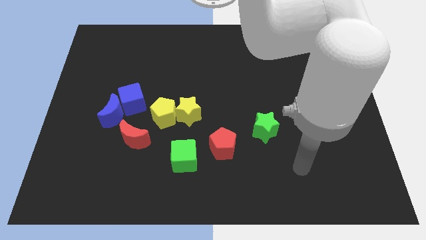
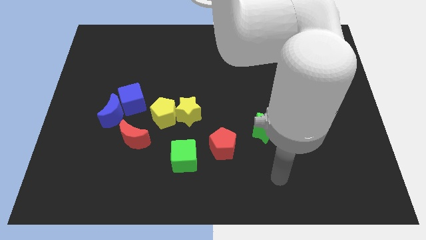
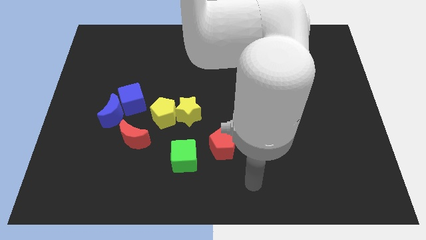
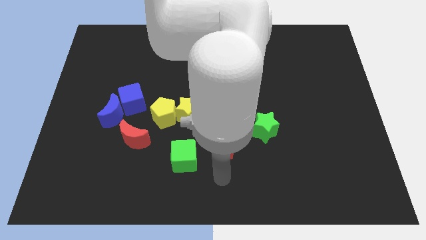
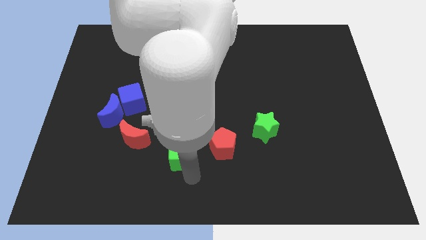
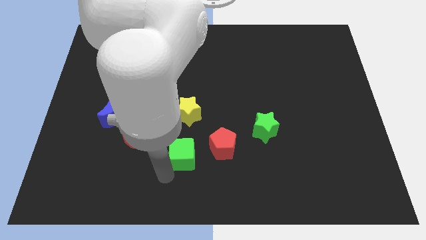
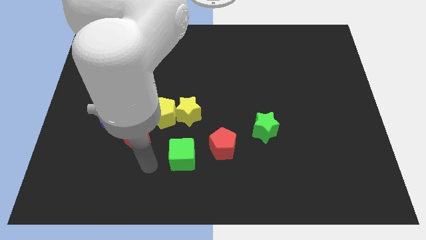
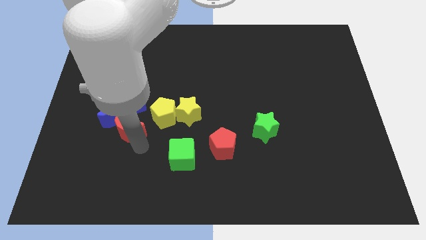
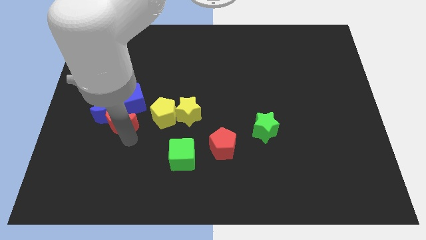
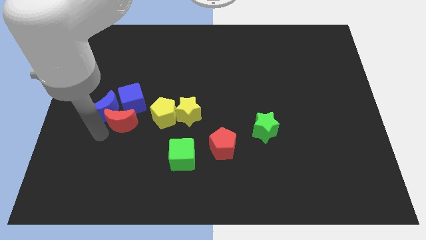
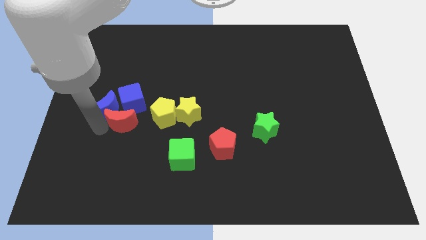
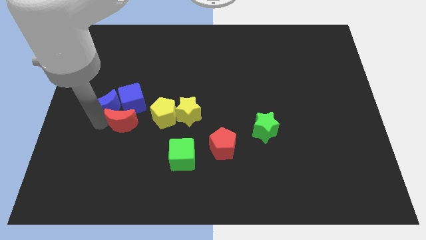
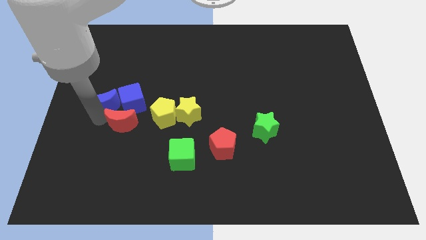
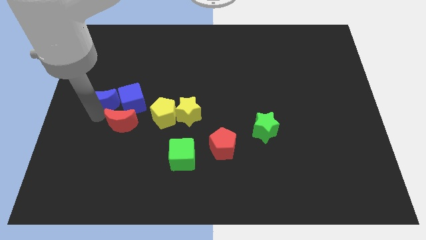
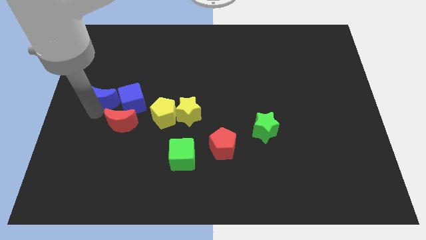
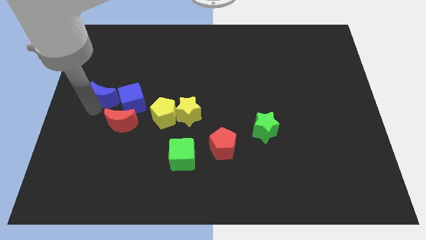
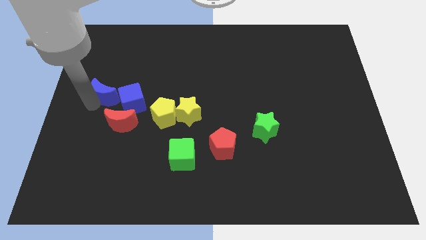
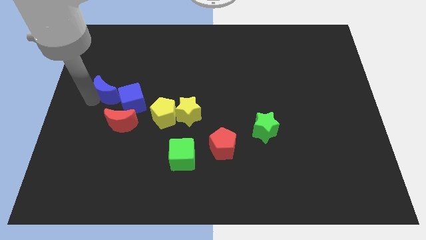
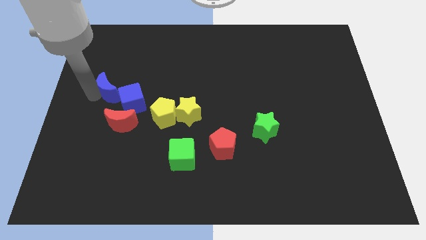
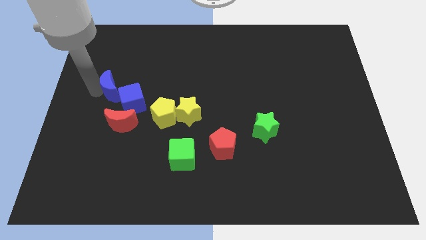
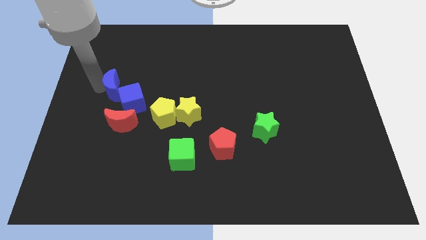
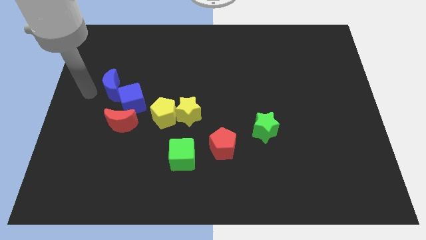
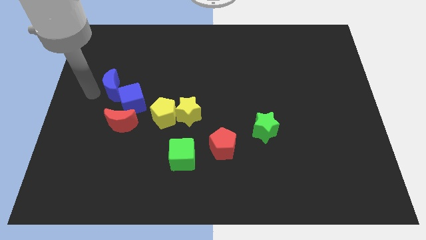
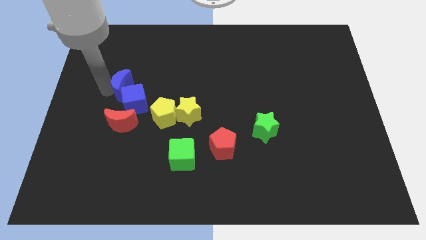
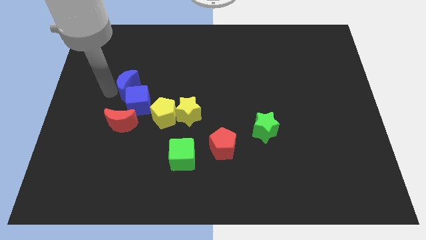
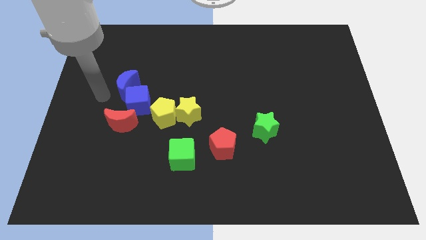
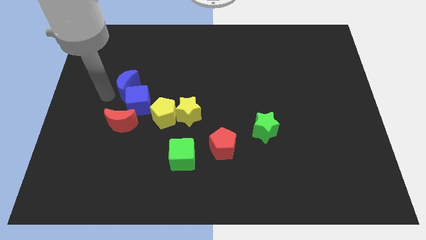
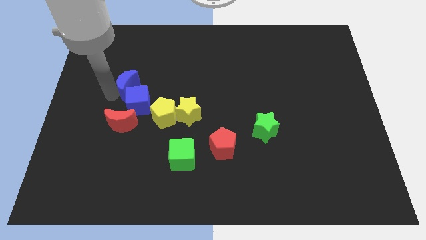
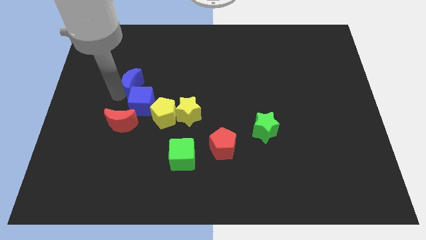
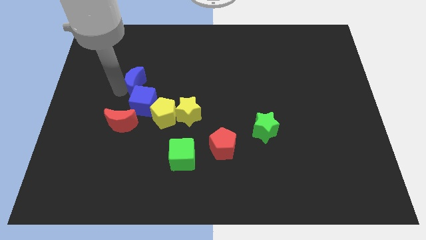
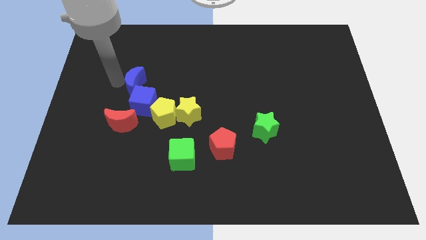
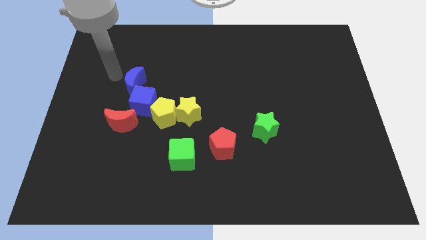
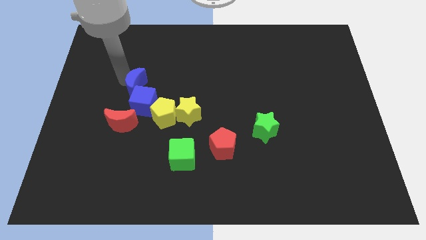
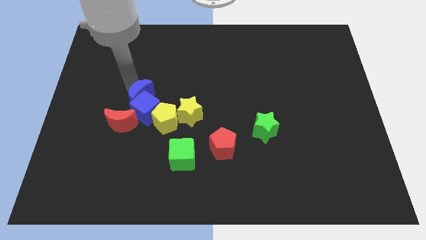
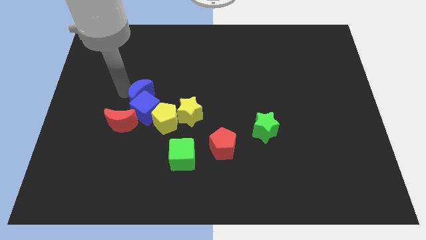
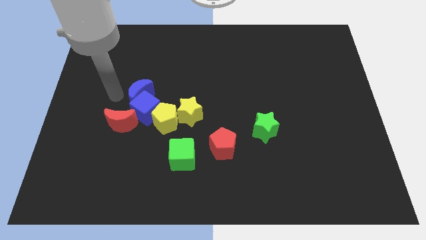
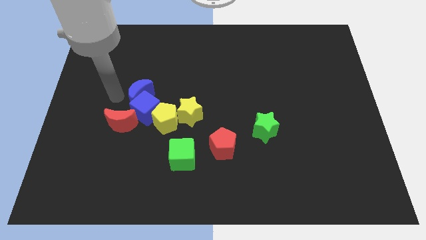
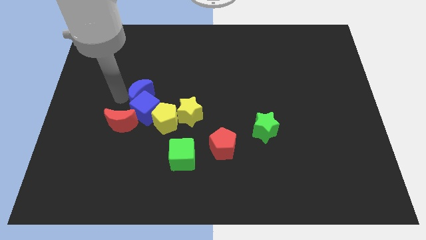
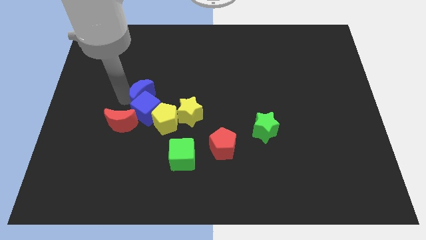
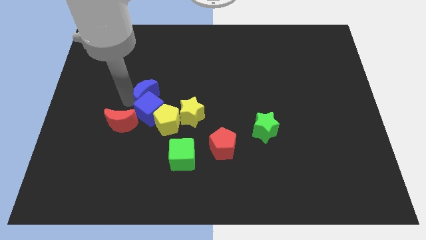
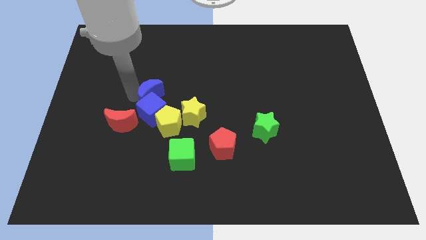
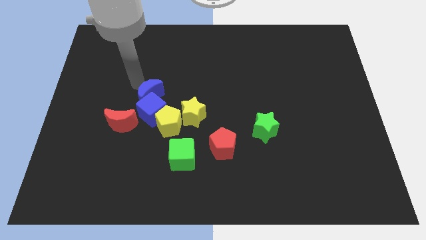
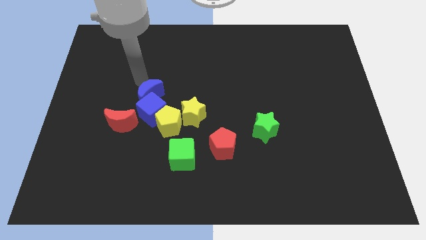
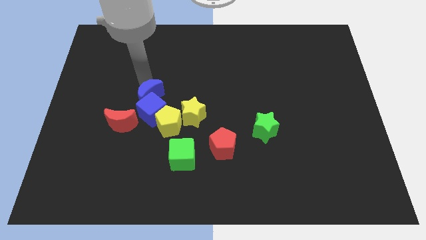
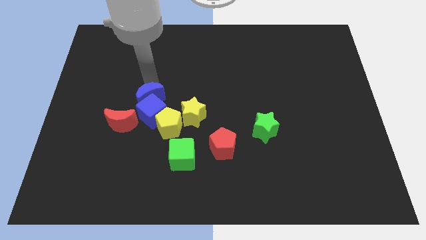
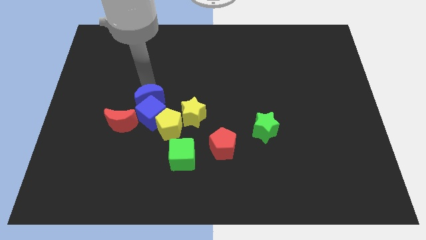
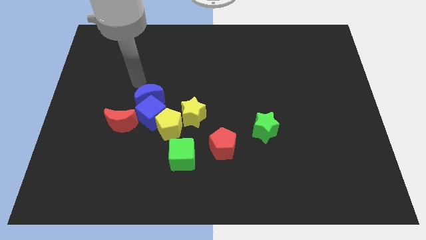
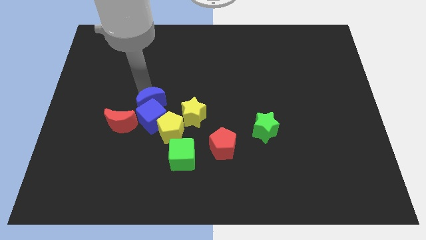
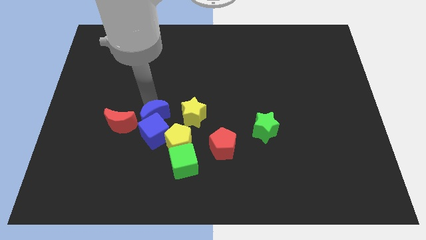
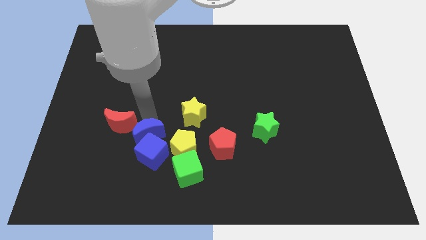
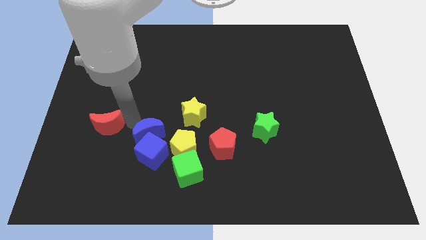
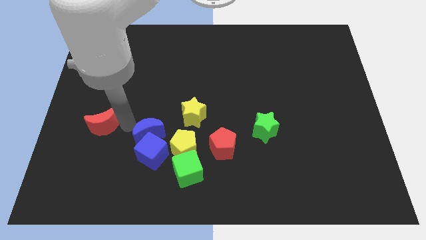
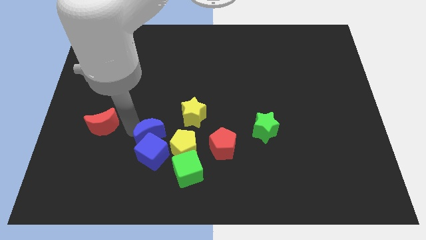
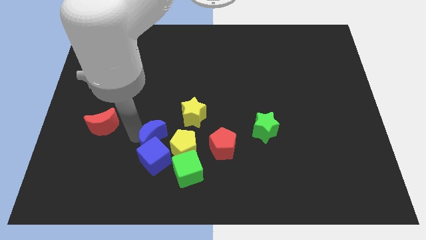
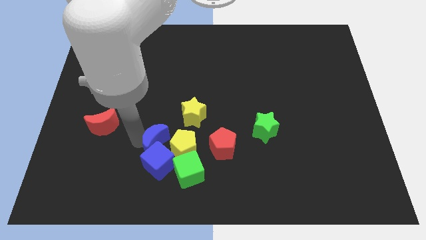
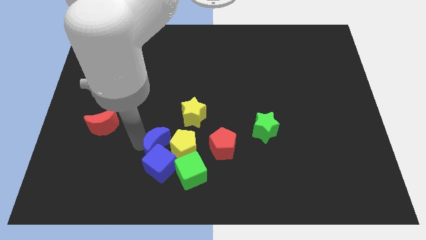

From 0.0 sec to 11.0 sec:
slide the blue moon close to the yellow pentagon

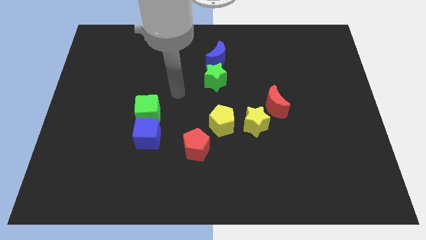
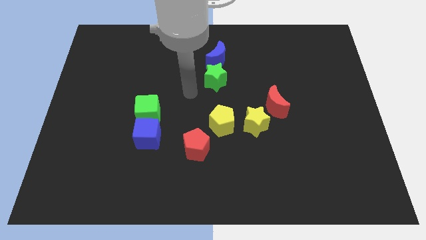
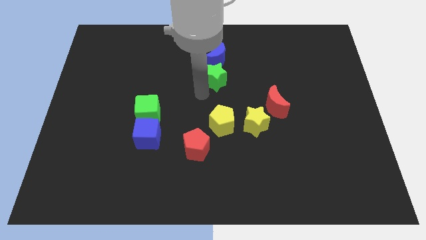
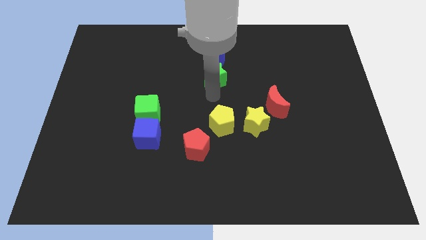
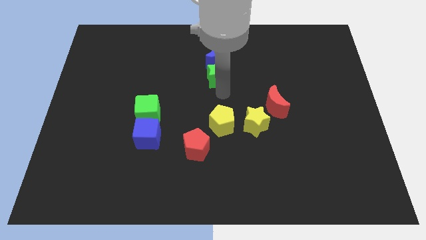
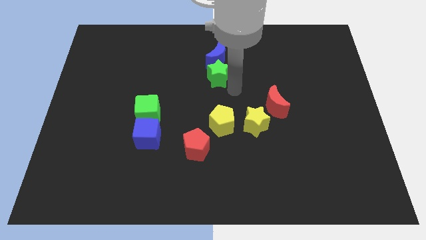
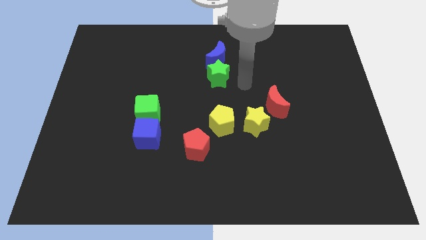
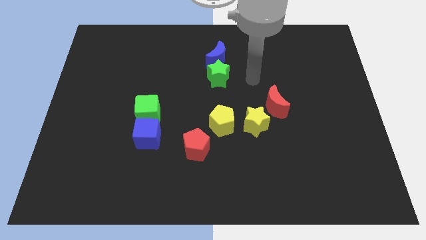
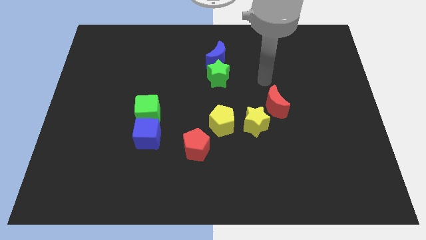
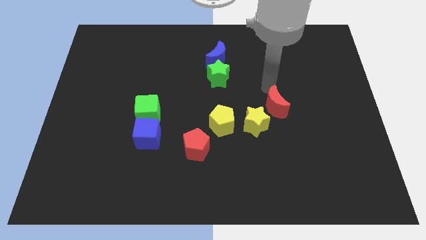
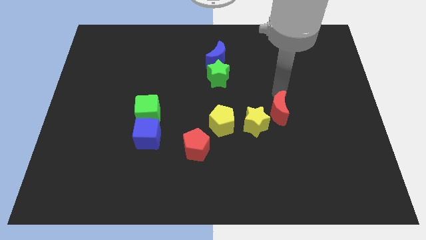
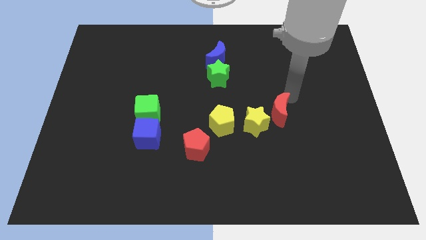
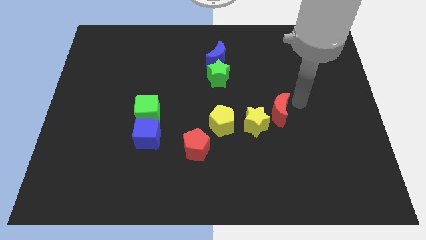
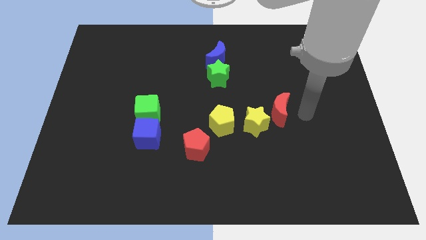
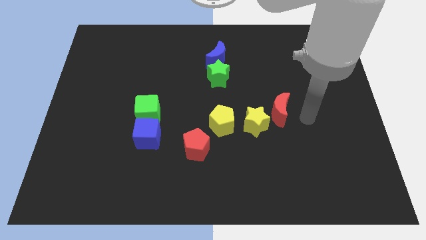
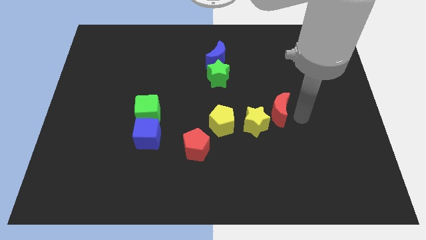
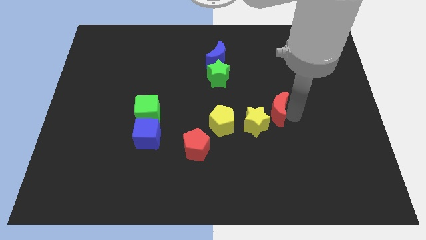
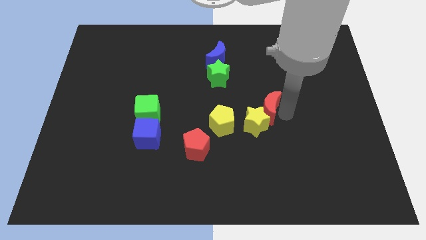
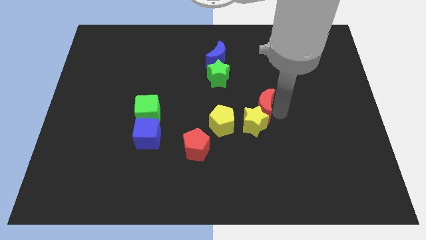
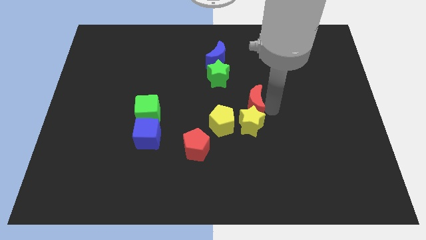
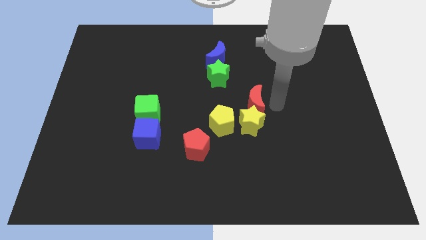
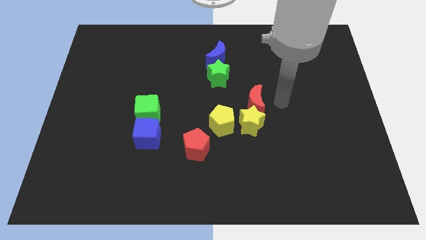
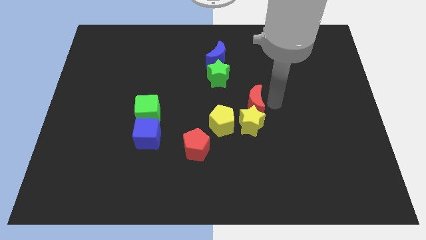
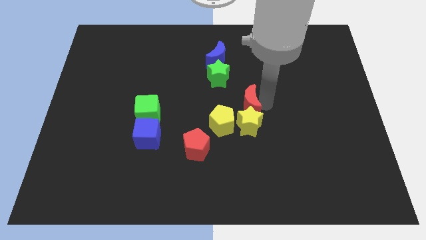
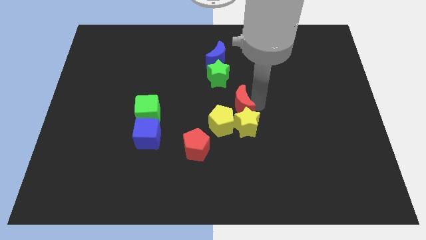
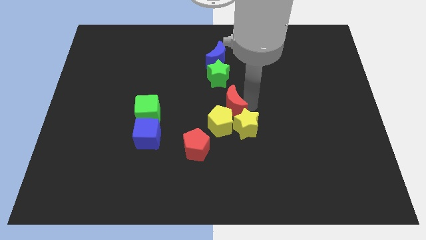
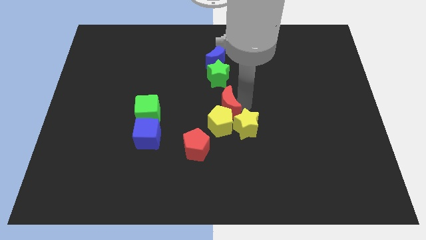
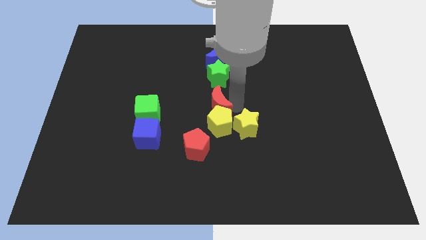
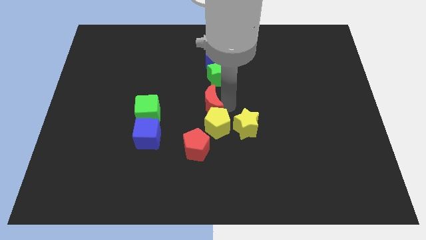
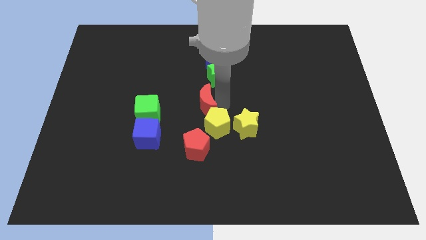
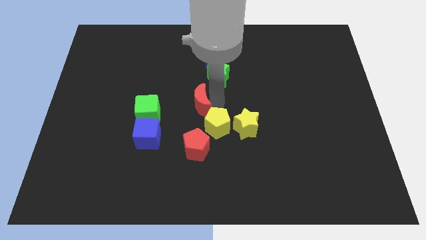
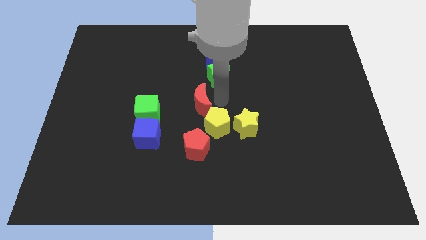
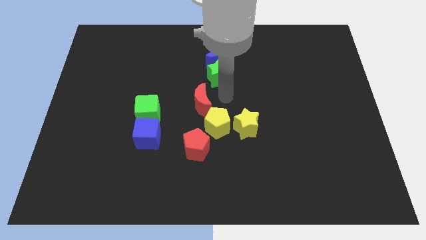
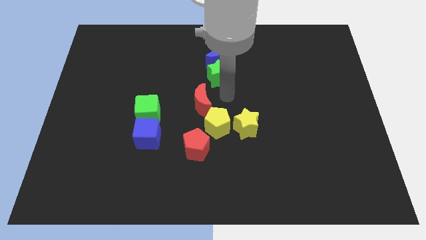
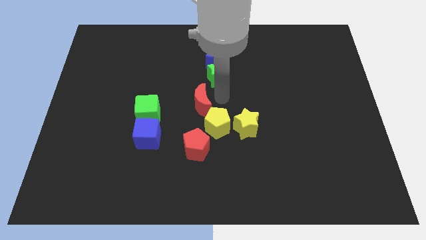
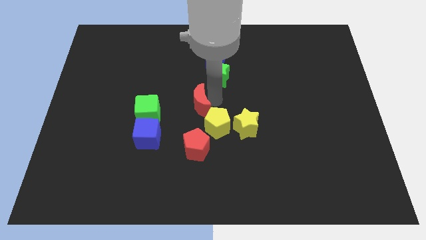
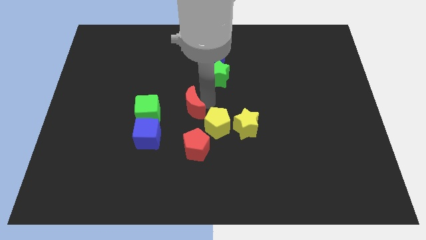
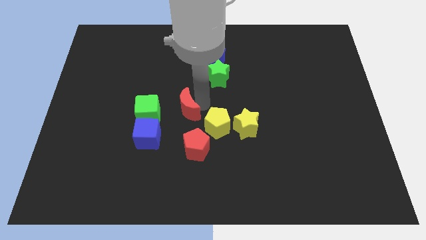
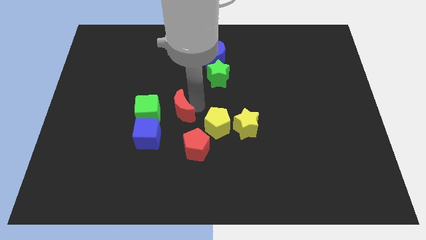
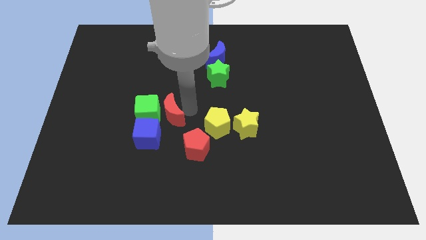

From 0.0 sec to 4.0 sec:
push the red moon next to the green cube
